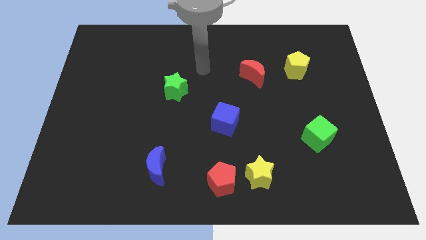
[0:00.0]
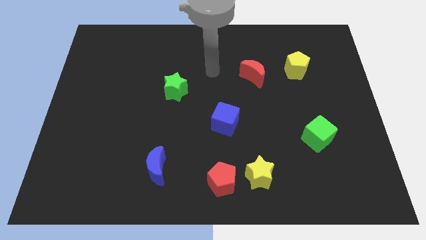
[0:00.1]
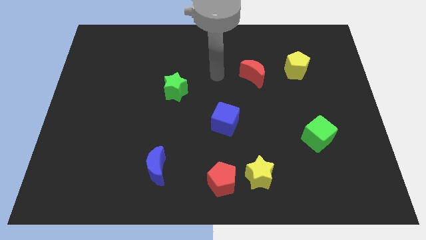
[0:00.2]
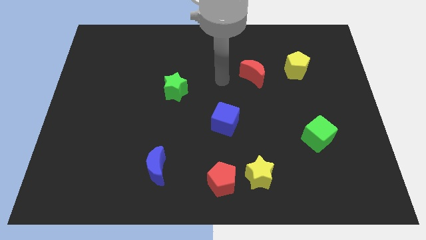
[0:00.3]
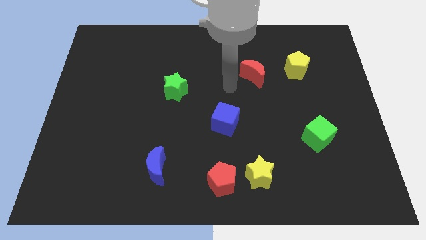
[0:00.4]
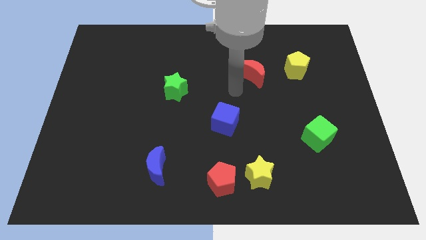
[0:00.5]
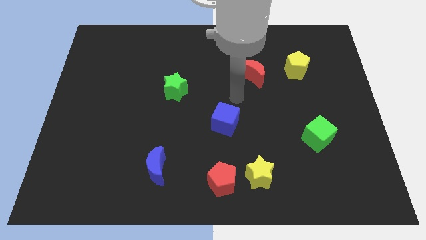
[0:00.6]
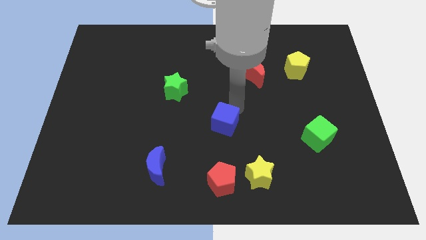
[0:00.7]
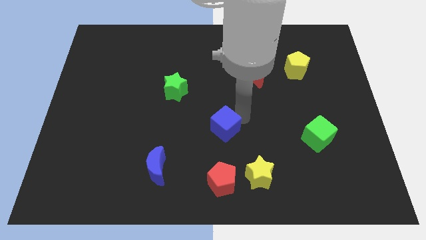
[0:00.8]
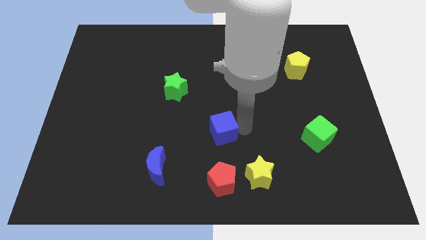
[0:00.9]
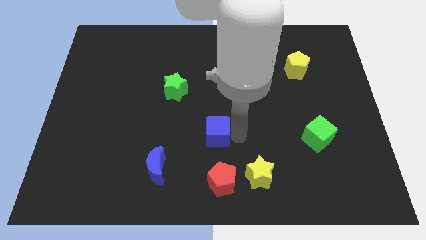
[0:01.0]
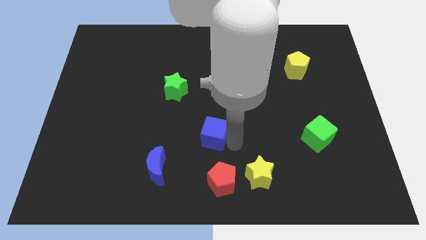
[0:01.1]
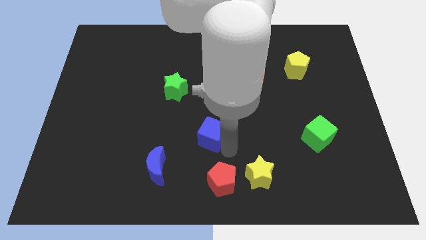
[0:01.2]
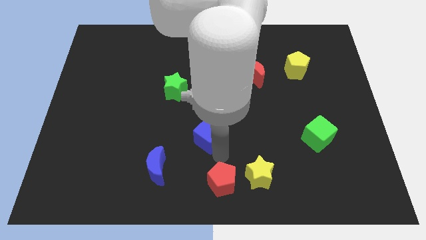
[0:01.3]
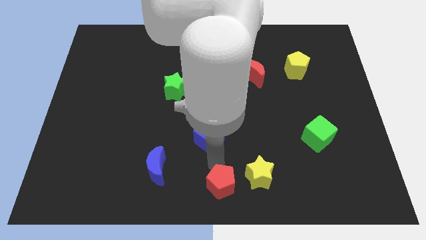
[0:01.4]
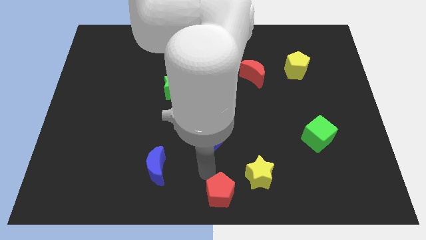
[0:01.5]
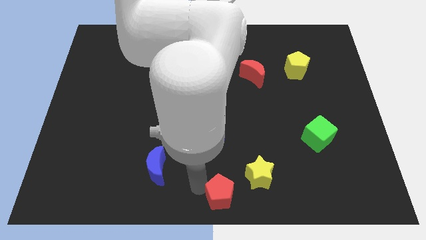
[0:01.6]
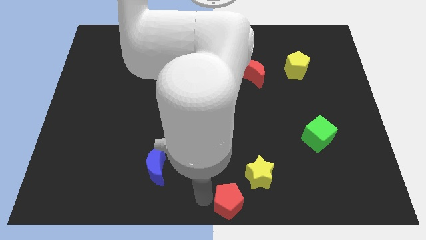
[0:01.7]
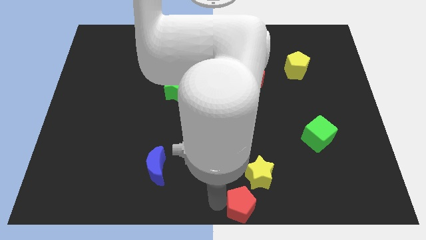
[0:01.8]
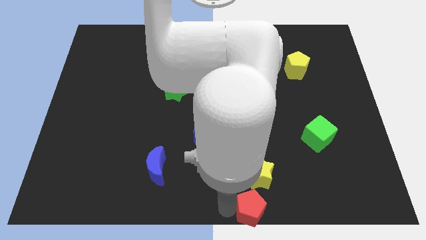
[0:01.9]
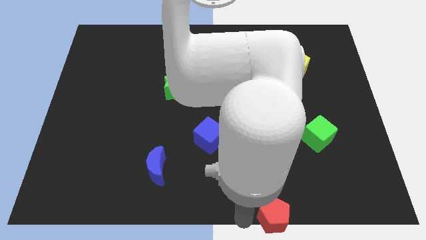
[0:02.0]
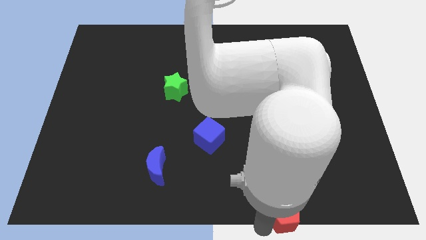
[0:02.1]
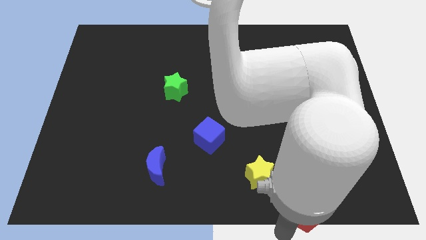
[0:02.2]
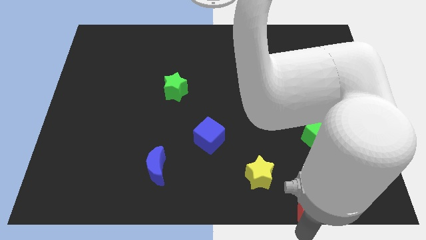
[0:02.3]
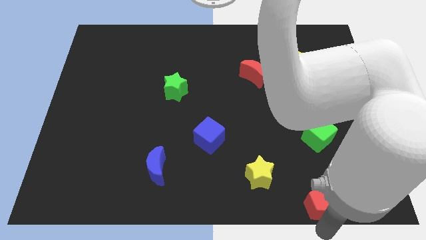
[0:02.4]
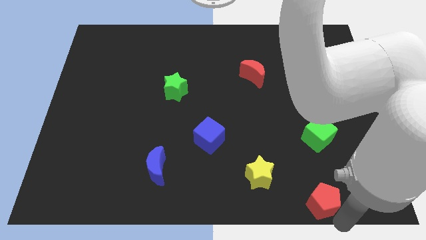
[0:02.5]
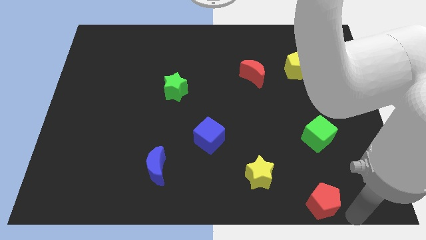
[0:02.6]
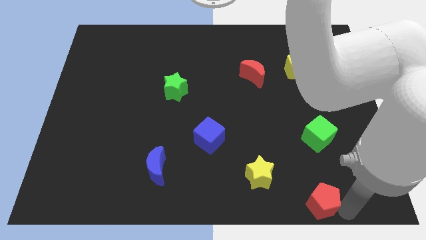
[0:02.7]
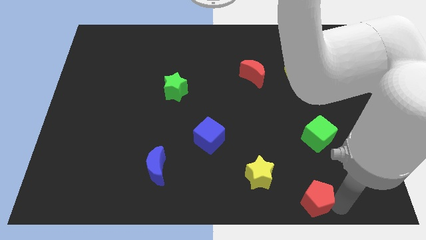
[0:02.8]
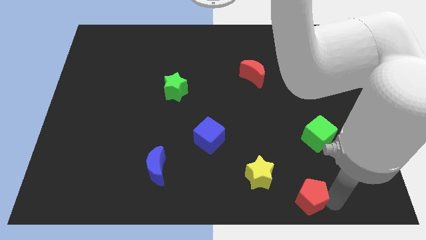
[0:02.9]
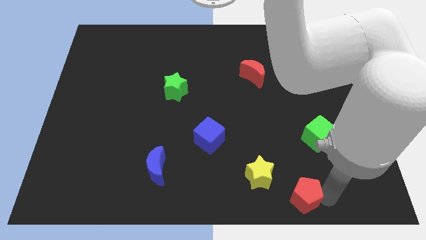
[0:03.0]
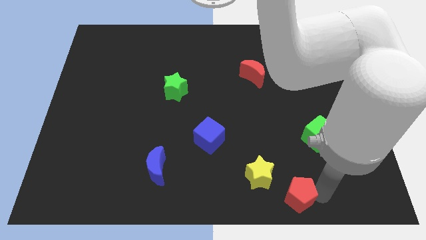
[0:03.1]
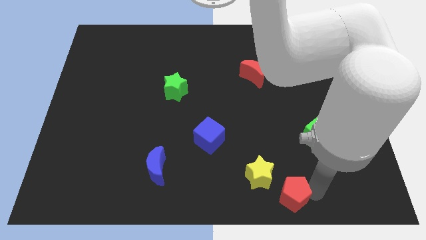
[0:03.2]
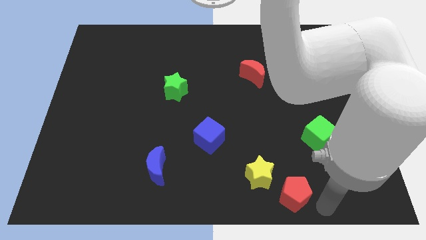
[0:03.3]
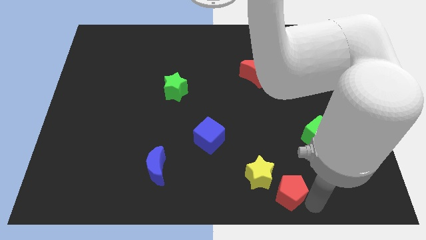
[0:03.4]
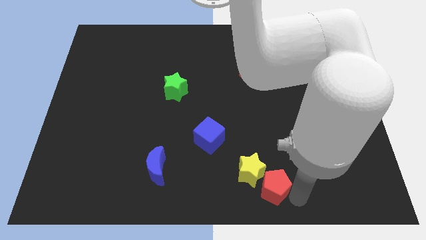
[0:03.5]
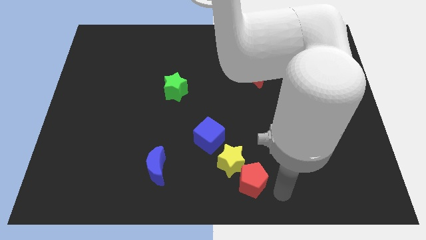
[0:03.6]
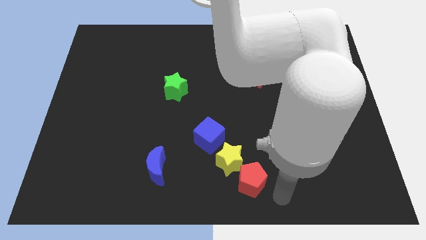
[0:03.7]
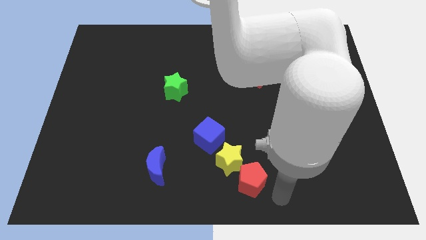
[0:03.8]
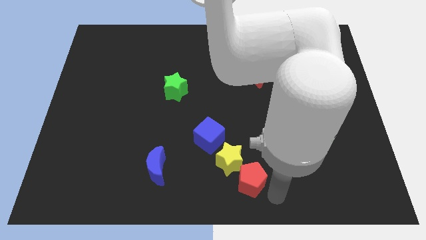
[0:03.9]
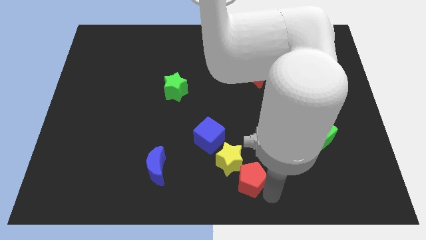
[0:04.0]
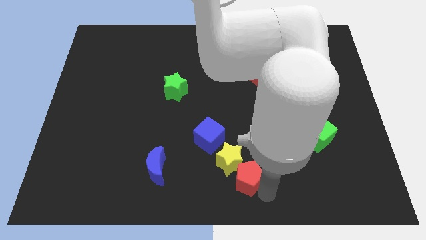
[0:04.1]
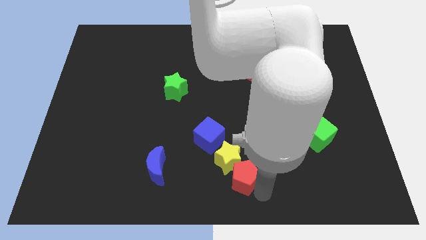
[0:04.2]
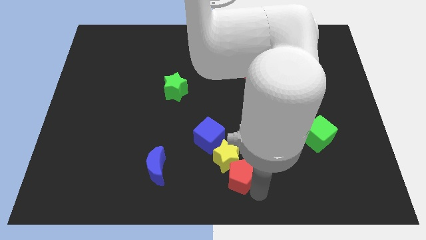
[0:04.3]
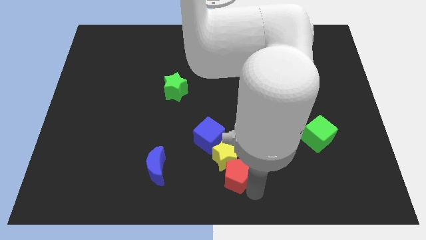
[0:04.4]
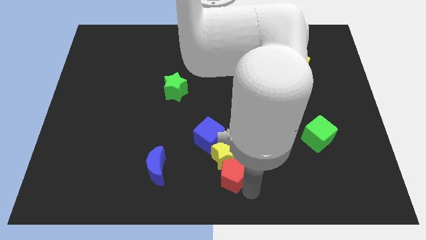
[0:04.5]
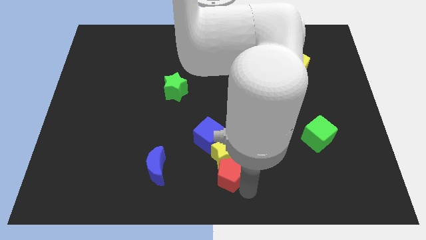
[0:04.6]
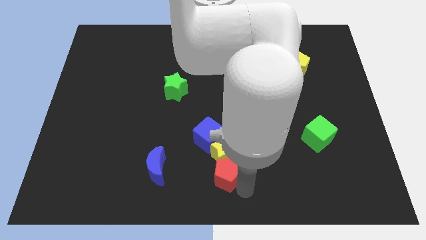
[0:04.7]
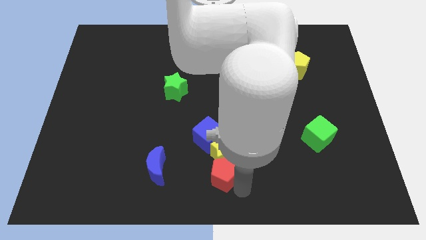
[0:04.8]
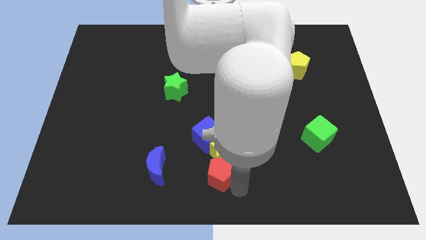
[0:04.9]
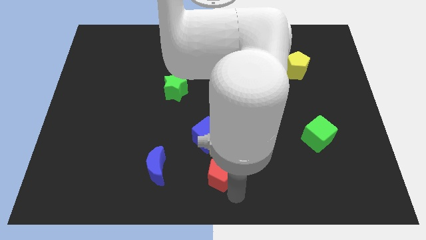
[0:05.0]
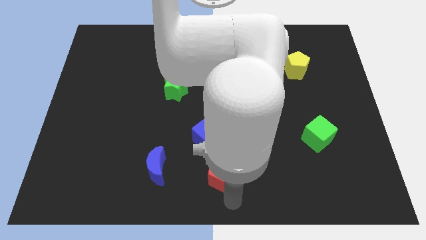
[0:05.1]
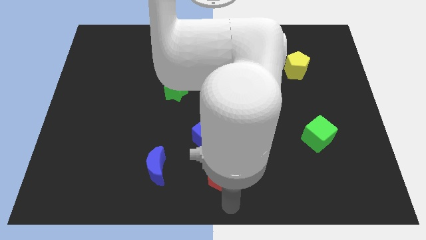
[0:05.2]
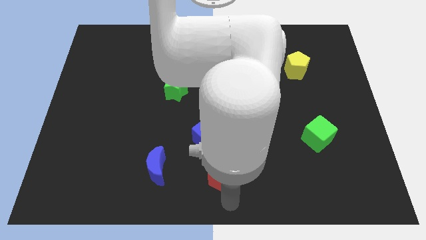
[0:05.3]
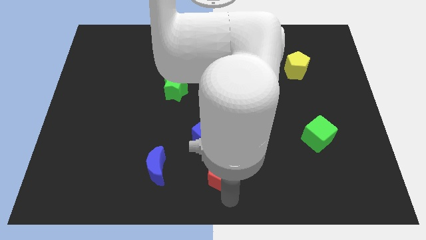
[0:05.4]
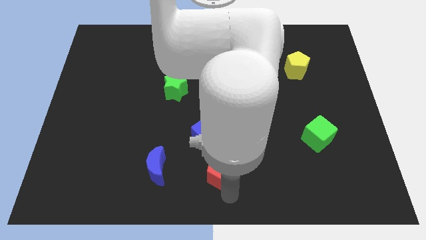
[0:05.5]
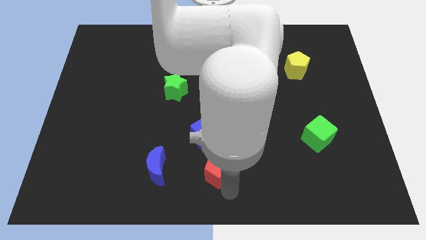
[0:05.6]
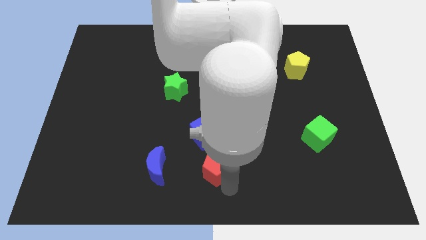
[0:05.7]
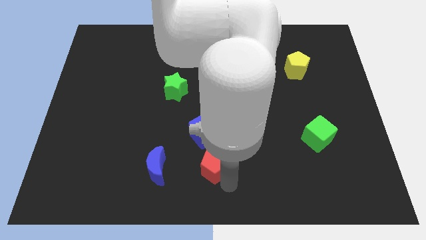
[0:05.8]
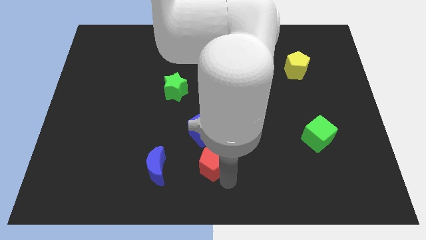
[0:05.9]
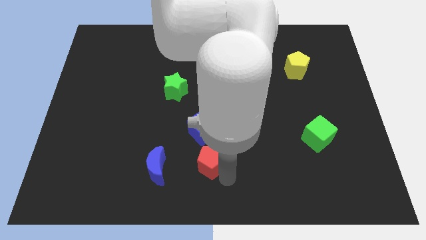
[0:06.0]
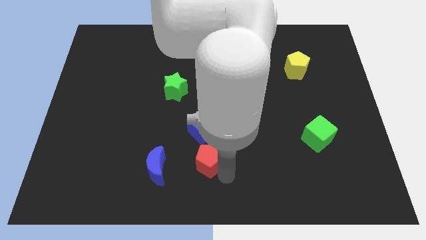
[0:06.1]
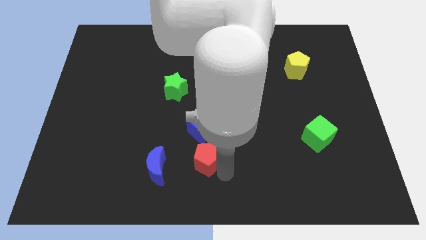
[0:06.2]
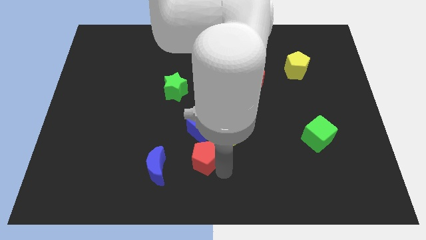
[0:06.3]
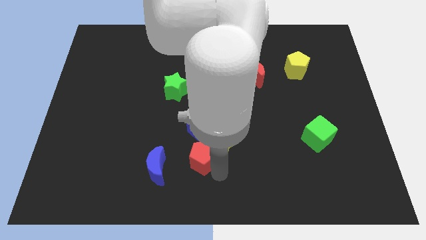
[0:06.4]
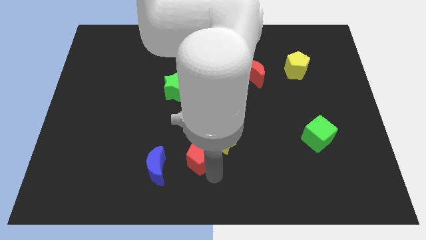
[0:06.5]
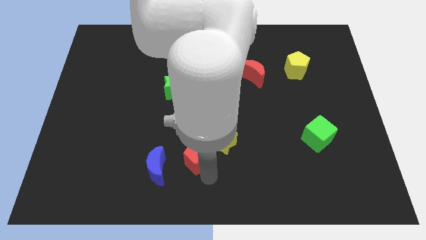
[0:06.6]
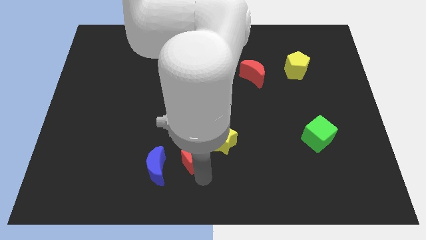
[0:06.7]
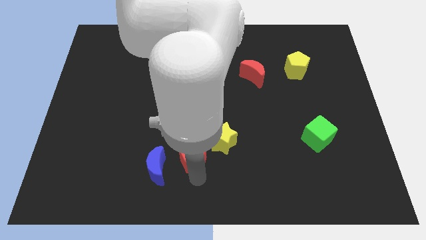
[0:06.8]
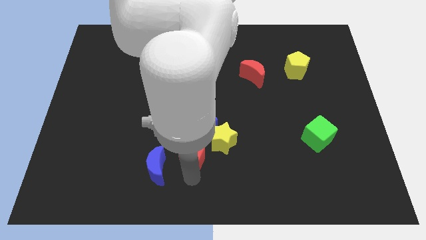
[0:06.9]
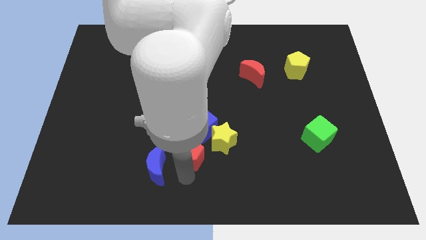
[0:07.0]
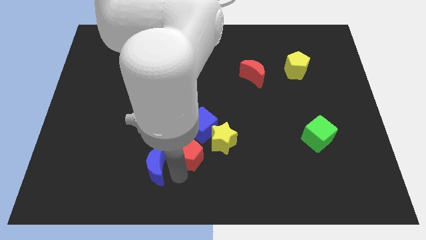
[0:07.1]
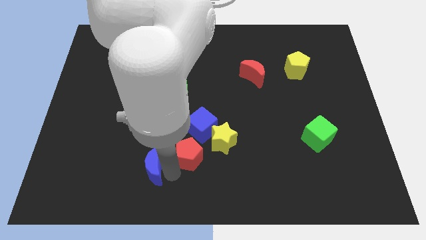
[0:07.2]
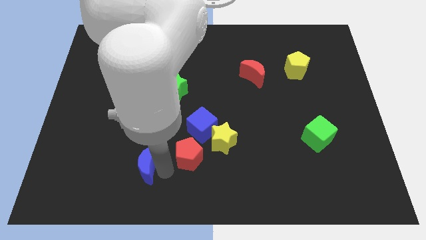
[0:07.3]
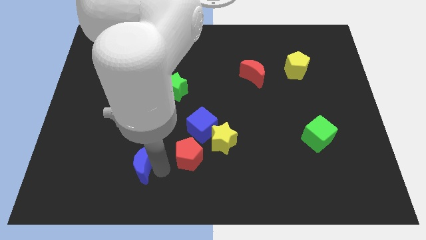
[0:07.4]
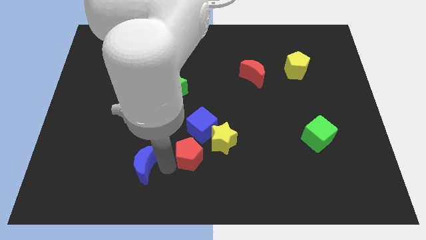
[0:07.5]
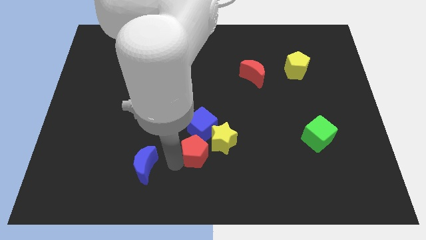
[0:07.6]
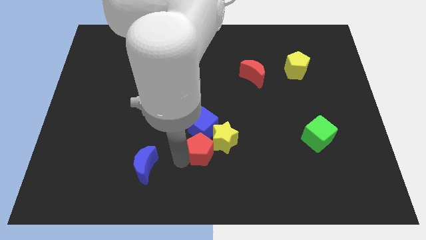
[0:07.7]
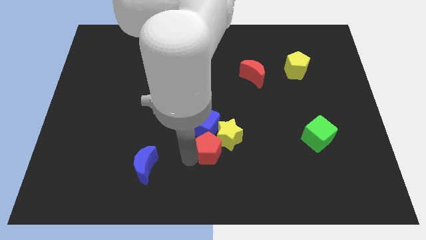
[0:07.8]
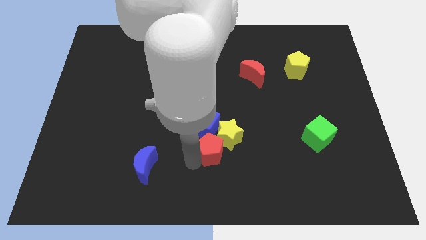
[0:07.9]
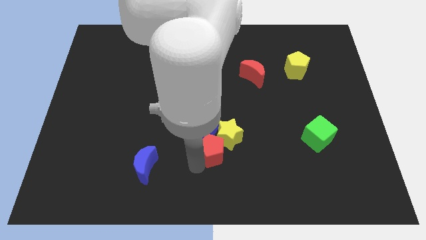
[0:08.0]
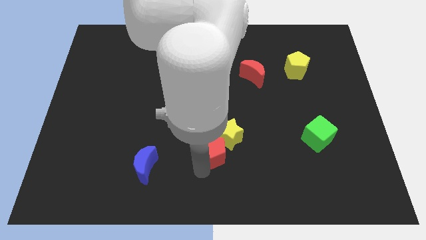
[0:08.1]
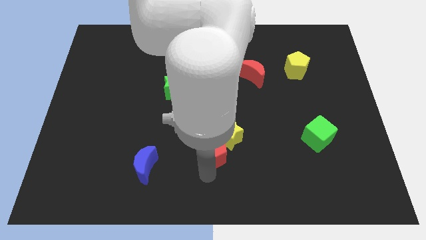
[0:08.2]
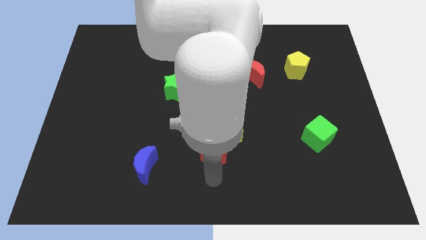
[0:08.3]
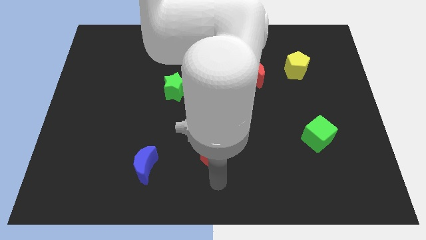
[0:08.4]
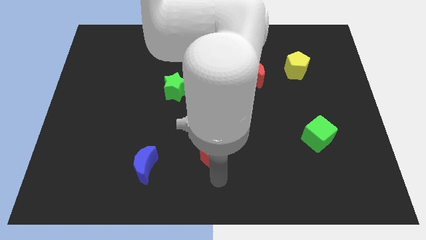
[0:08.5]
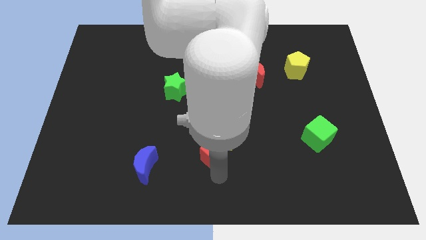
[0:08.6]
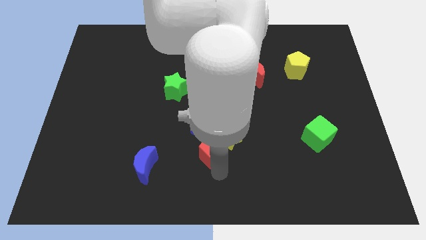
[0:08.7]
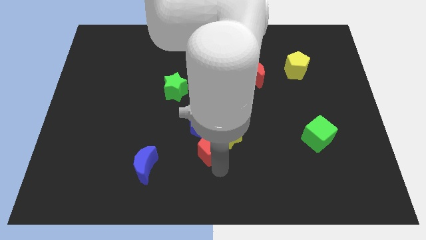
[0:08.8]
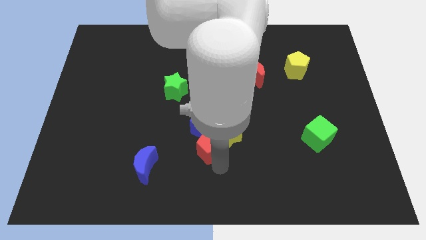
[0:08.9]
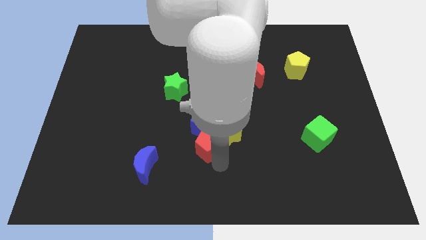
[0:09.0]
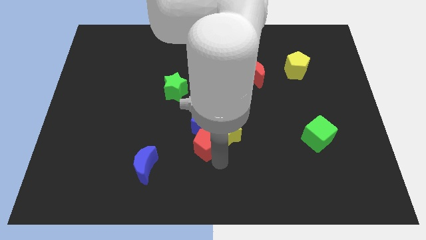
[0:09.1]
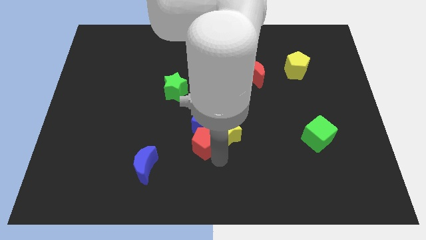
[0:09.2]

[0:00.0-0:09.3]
push the red pentagon to the middle
